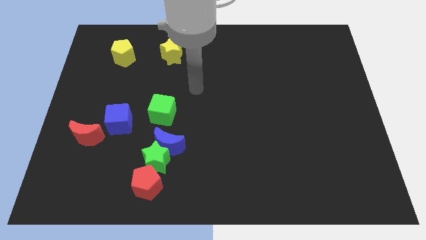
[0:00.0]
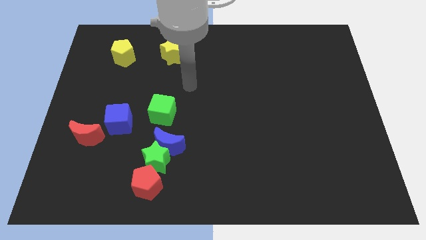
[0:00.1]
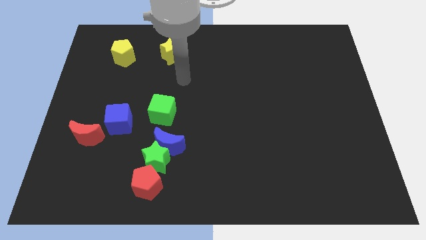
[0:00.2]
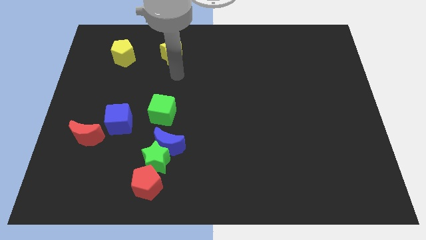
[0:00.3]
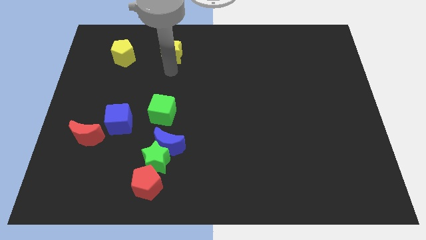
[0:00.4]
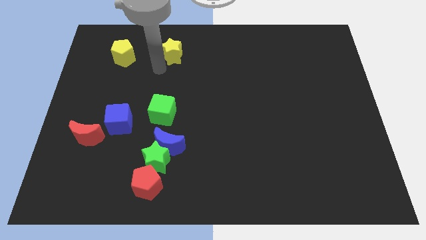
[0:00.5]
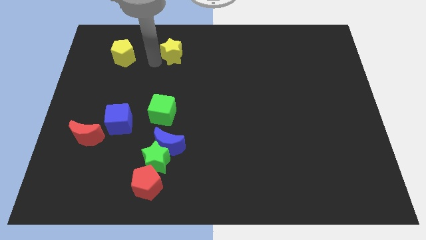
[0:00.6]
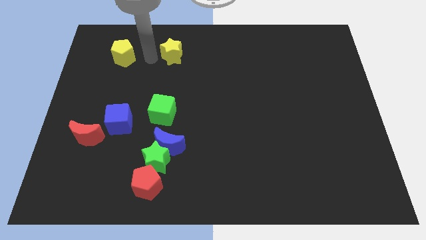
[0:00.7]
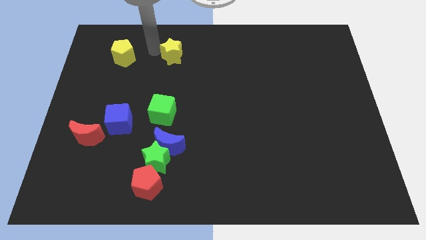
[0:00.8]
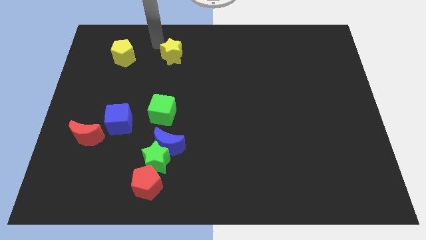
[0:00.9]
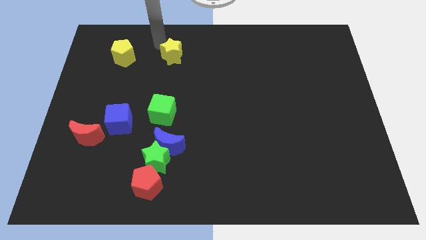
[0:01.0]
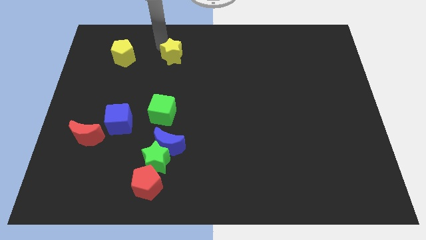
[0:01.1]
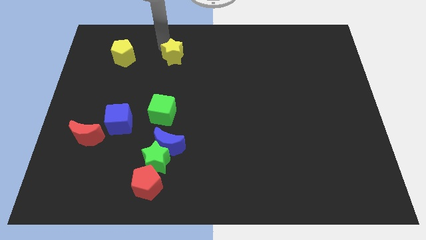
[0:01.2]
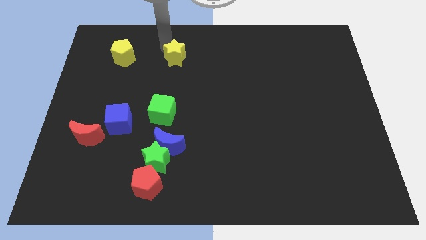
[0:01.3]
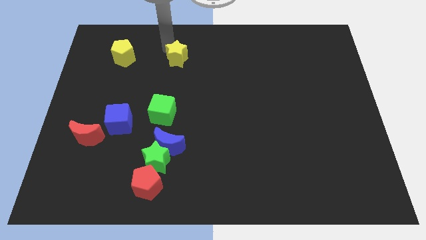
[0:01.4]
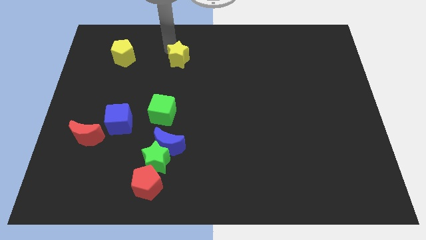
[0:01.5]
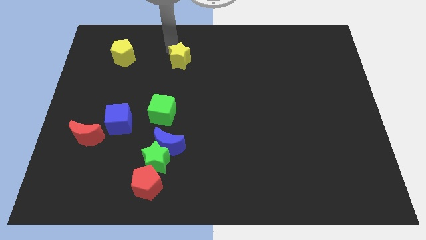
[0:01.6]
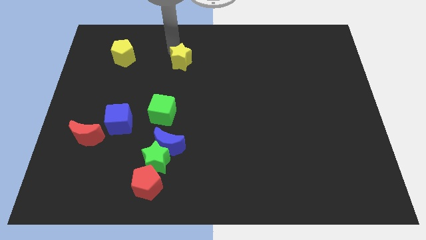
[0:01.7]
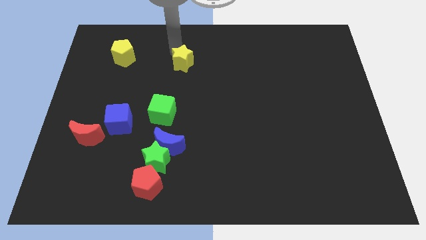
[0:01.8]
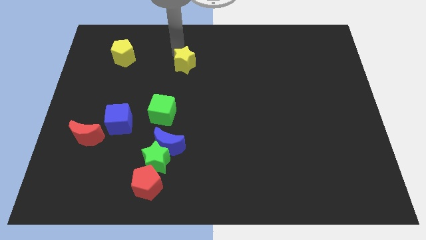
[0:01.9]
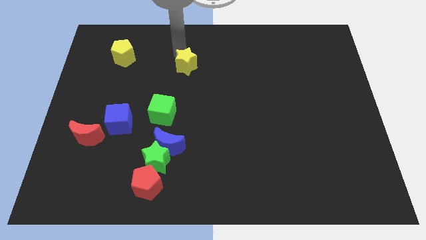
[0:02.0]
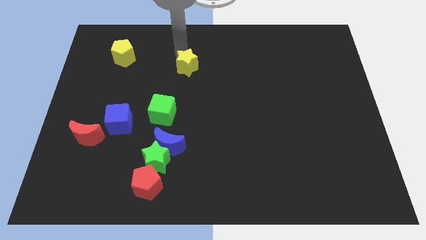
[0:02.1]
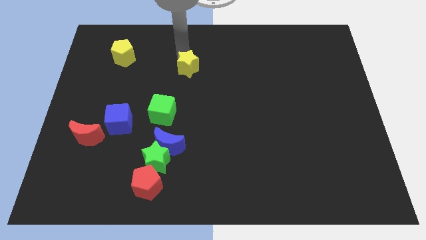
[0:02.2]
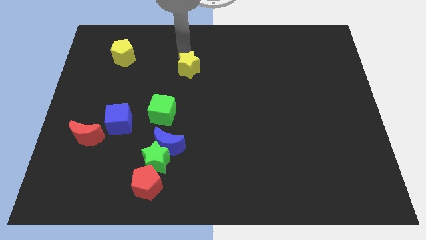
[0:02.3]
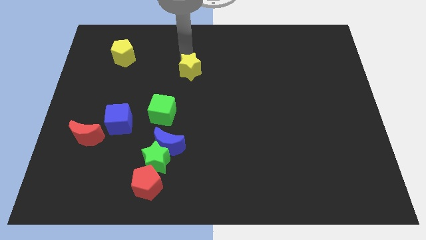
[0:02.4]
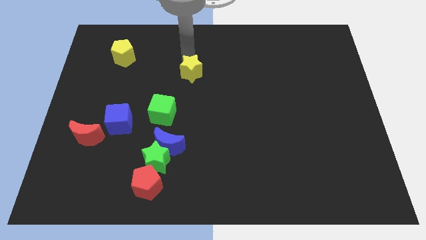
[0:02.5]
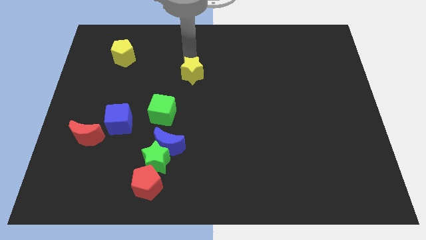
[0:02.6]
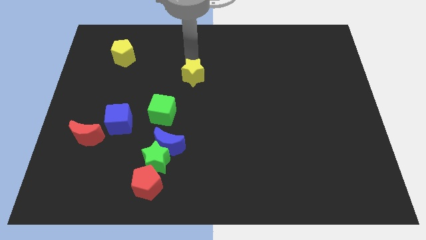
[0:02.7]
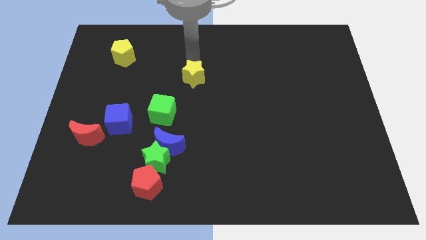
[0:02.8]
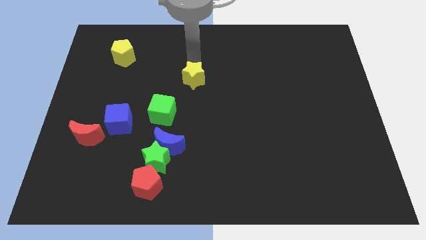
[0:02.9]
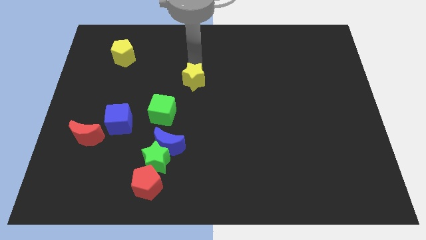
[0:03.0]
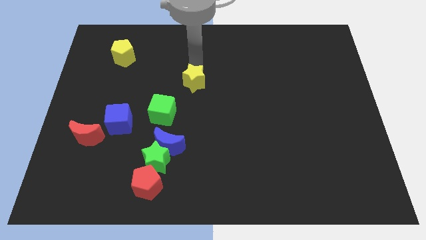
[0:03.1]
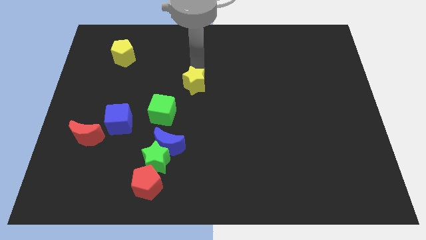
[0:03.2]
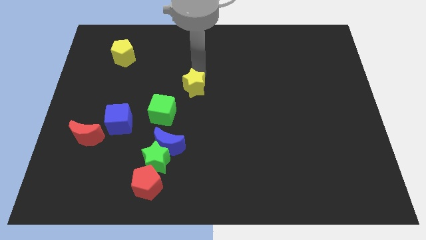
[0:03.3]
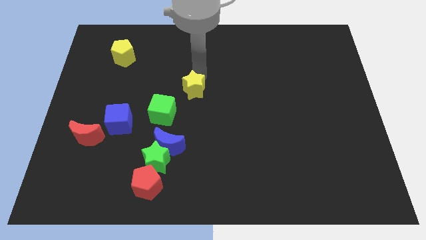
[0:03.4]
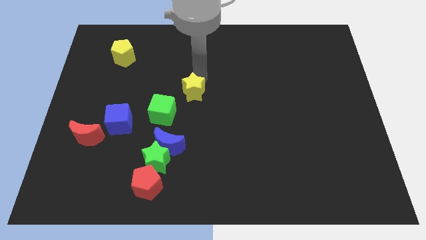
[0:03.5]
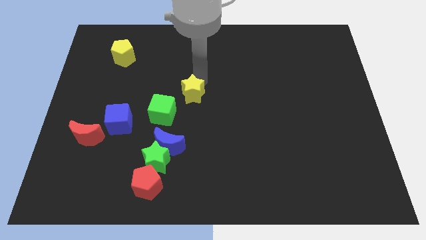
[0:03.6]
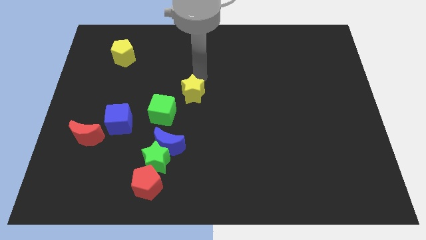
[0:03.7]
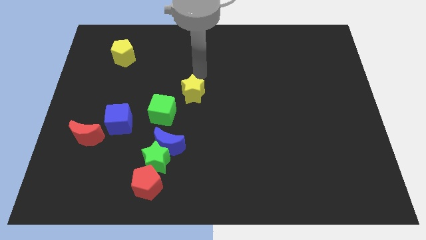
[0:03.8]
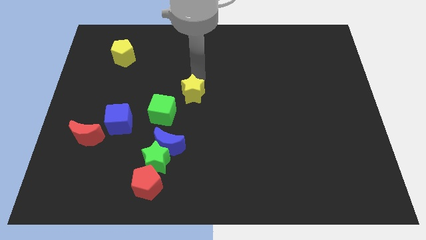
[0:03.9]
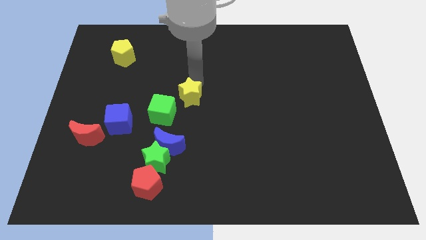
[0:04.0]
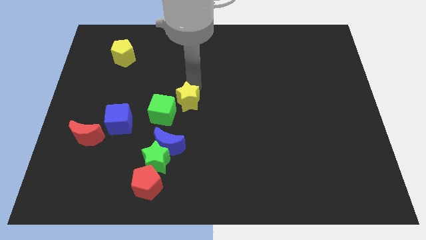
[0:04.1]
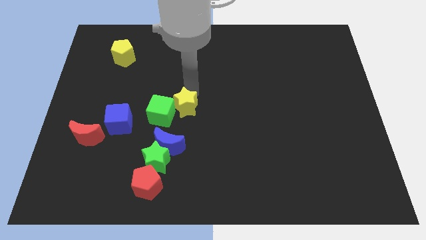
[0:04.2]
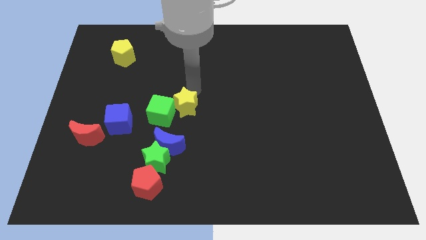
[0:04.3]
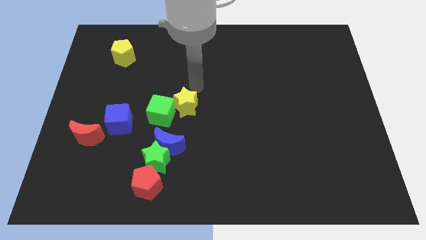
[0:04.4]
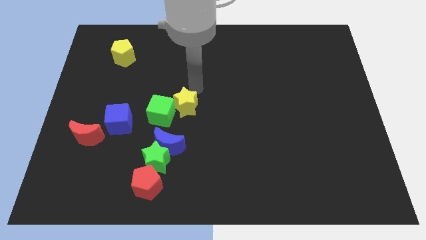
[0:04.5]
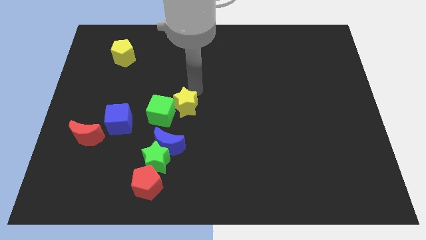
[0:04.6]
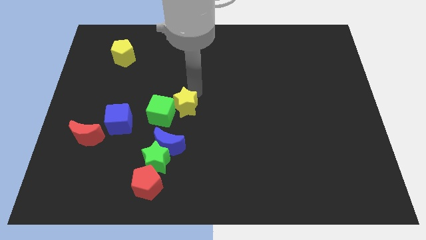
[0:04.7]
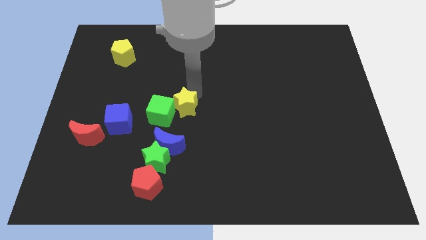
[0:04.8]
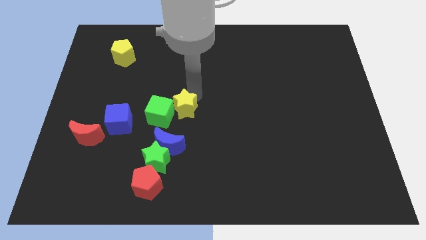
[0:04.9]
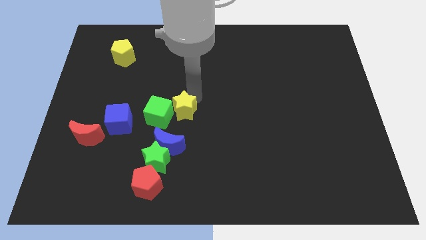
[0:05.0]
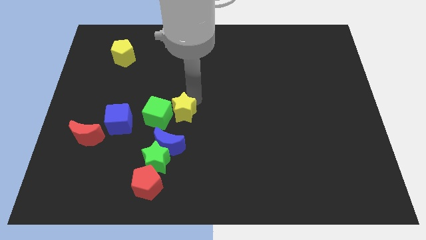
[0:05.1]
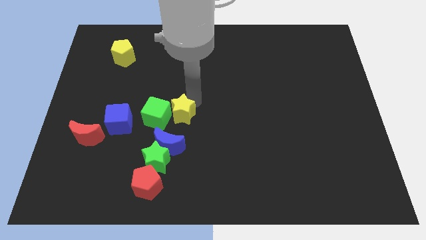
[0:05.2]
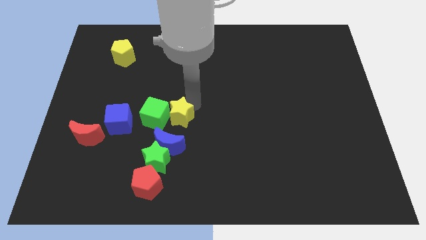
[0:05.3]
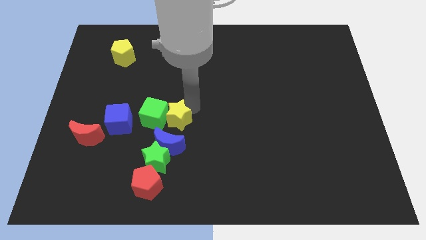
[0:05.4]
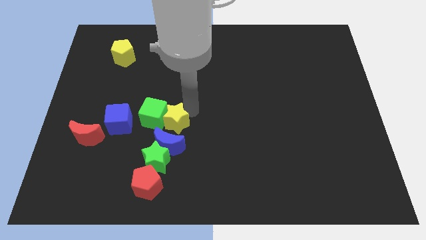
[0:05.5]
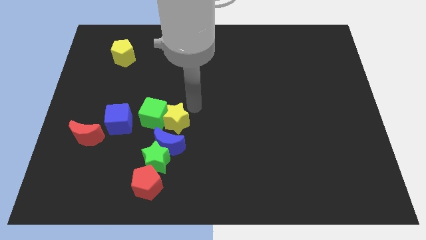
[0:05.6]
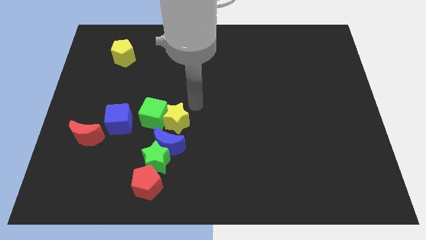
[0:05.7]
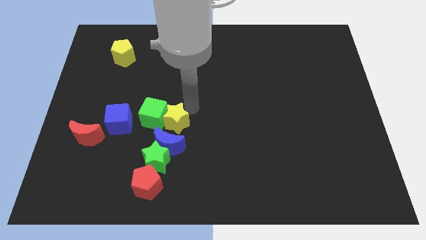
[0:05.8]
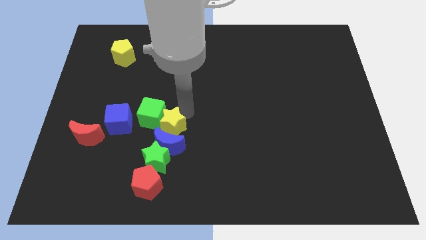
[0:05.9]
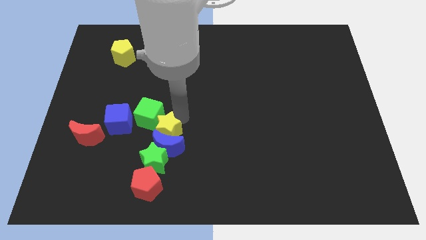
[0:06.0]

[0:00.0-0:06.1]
slide the yellow star to the top of the red pentagon
